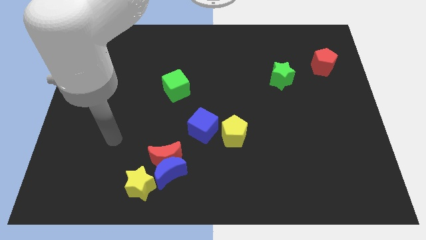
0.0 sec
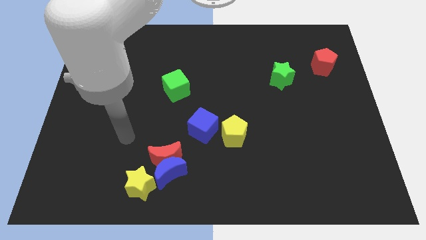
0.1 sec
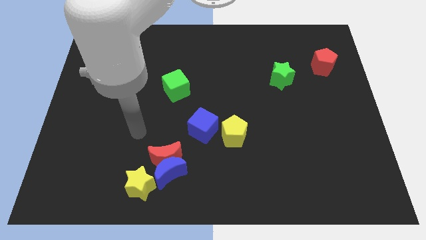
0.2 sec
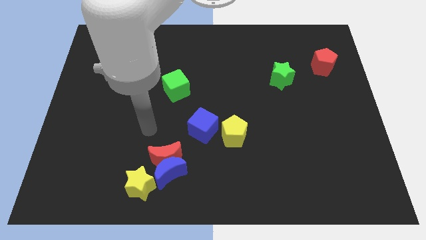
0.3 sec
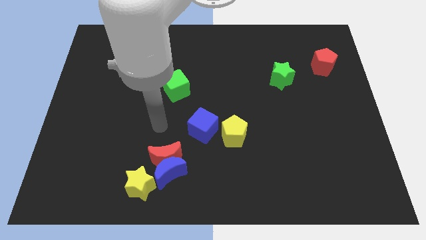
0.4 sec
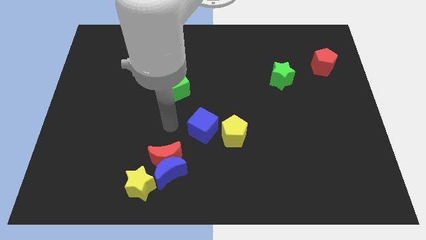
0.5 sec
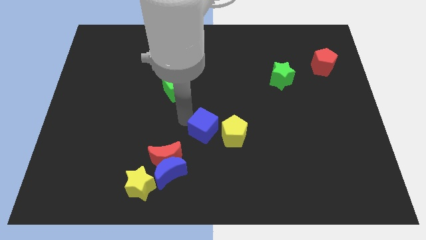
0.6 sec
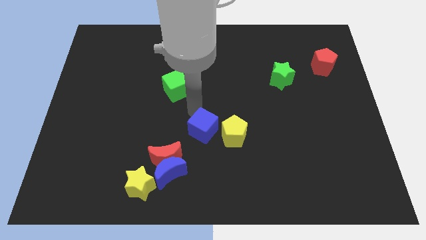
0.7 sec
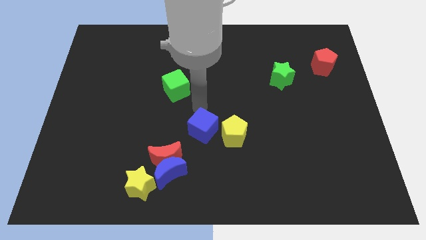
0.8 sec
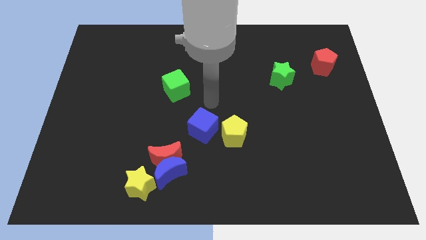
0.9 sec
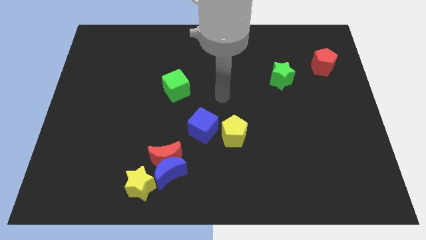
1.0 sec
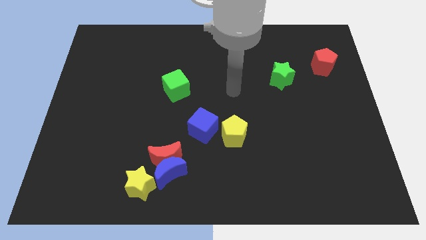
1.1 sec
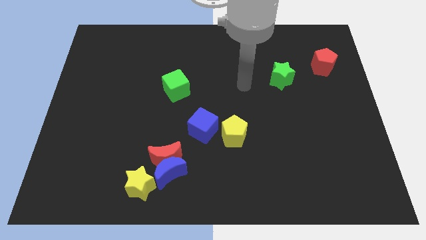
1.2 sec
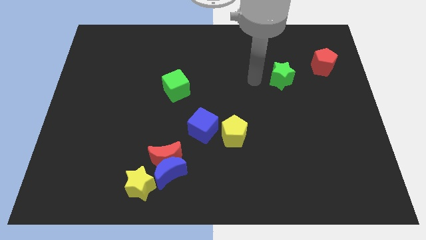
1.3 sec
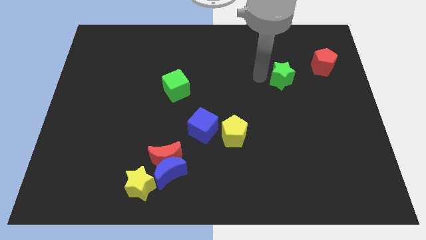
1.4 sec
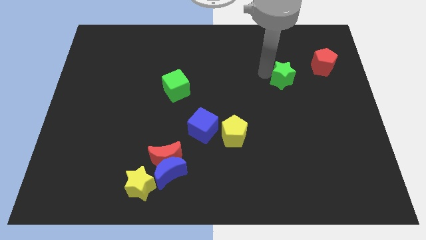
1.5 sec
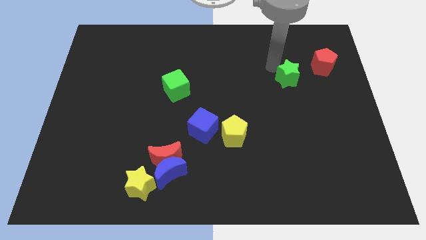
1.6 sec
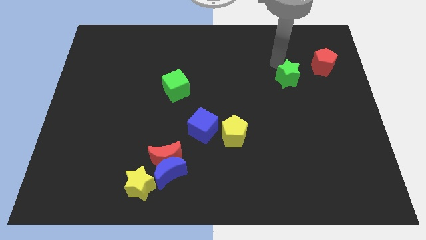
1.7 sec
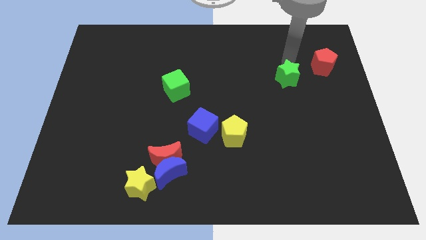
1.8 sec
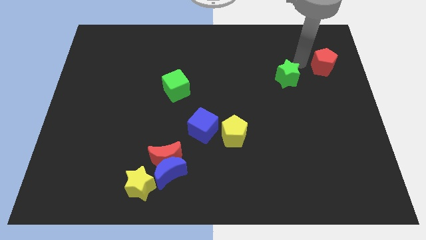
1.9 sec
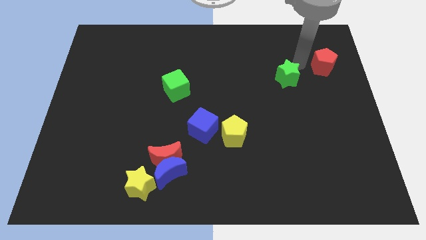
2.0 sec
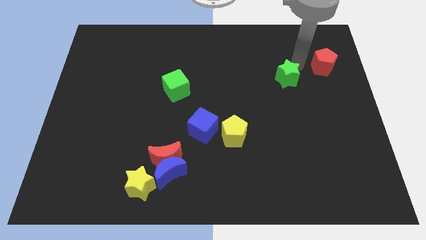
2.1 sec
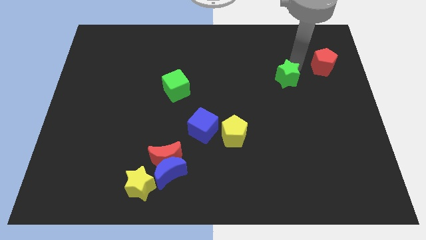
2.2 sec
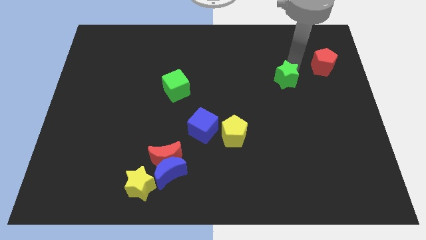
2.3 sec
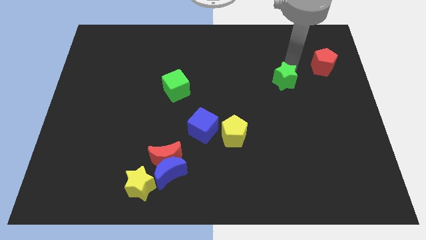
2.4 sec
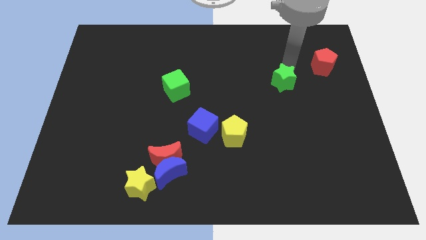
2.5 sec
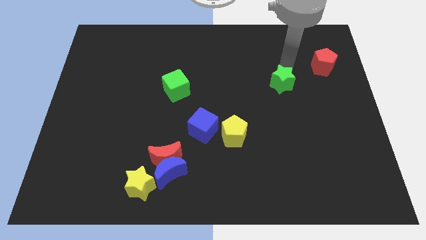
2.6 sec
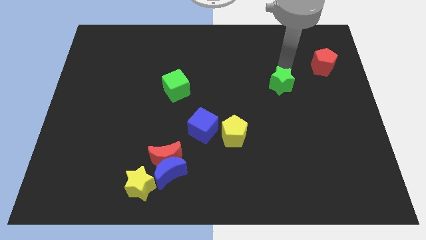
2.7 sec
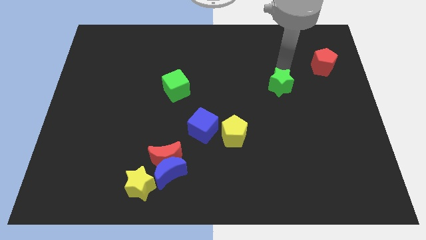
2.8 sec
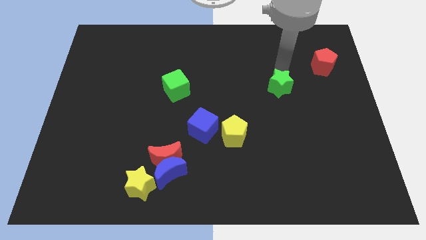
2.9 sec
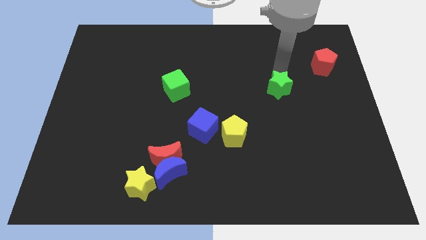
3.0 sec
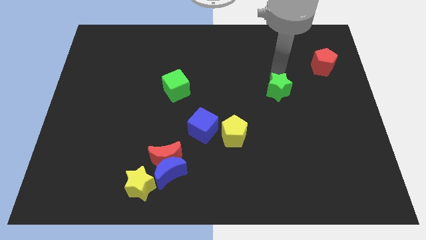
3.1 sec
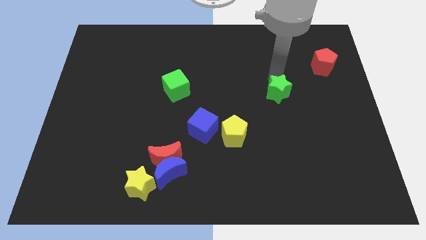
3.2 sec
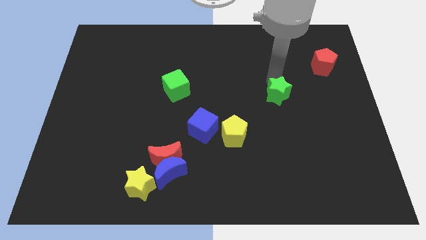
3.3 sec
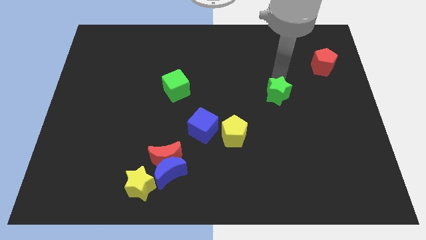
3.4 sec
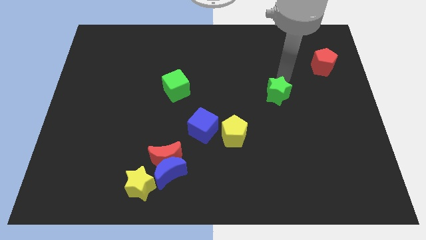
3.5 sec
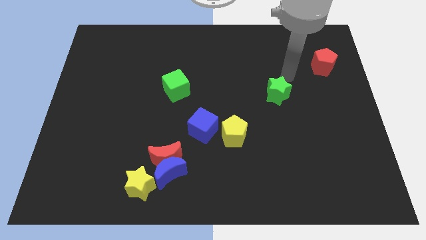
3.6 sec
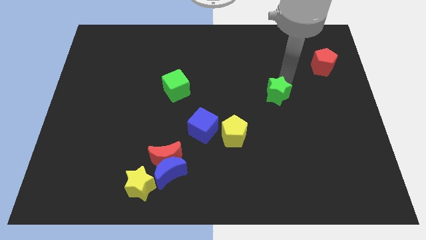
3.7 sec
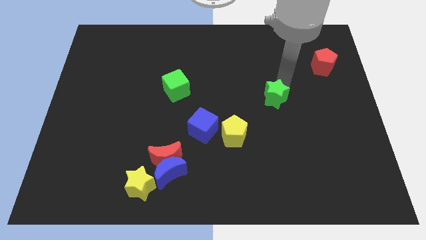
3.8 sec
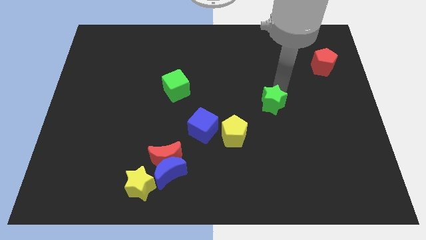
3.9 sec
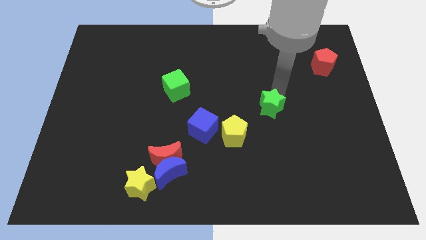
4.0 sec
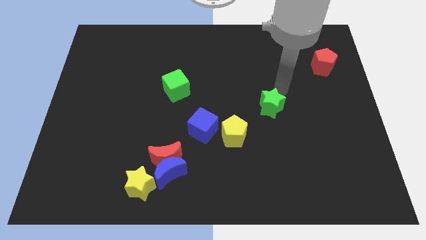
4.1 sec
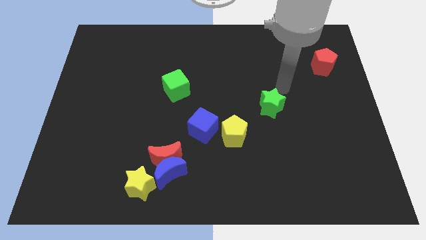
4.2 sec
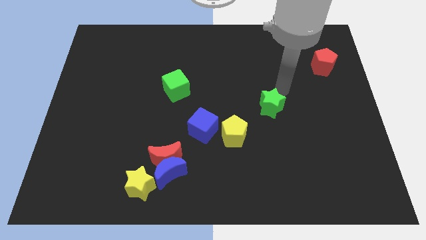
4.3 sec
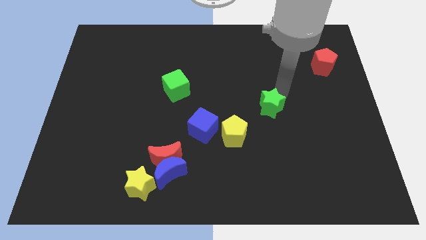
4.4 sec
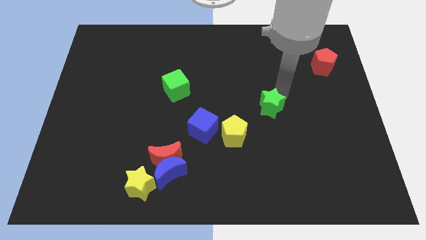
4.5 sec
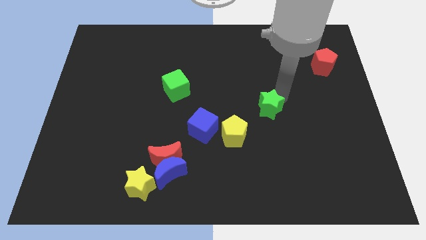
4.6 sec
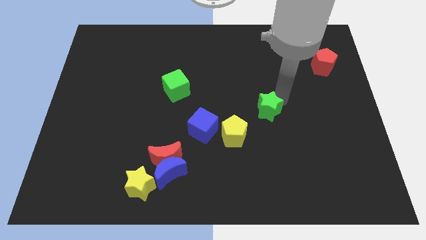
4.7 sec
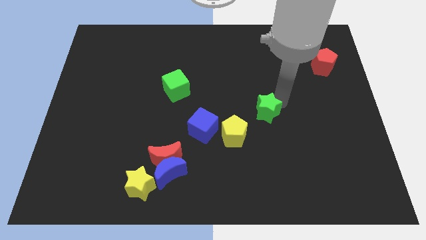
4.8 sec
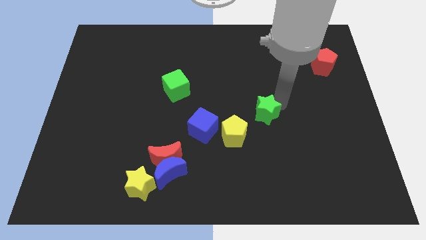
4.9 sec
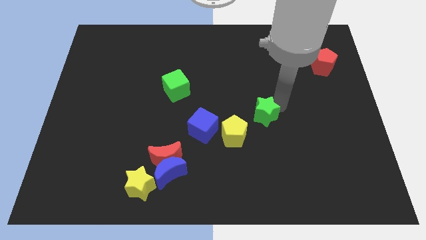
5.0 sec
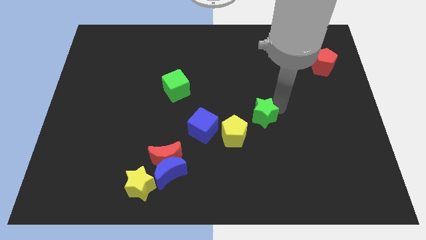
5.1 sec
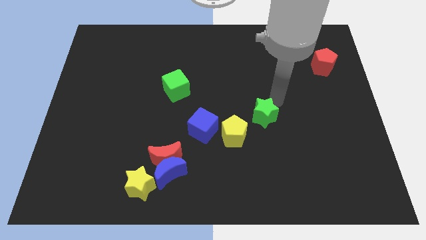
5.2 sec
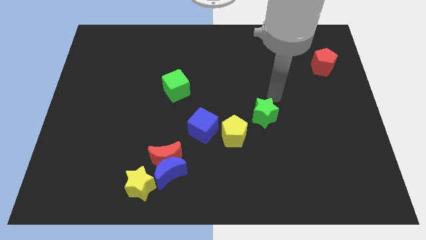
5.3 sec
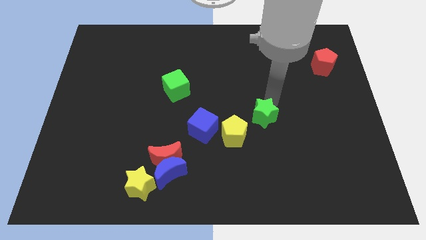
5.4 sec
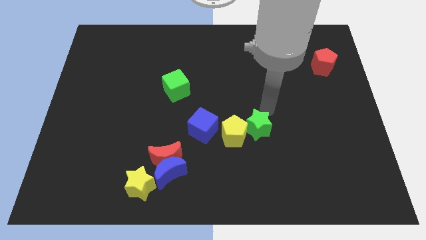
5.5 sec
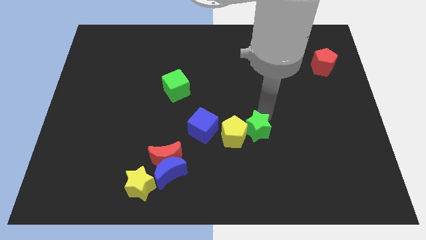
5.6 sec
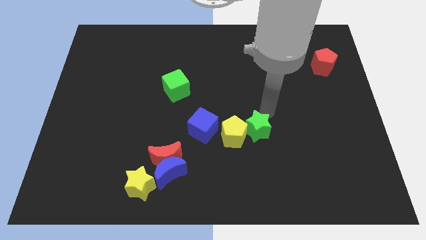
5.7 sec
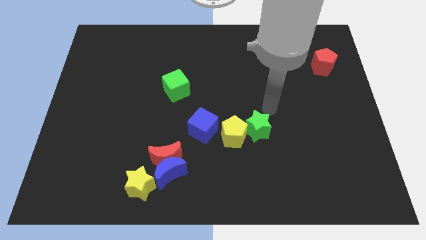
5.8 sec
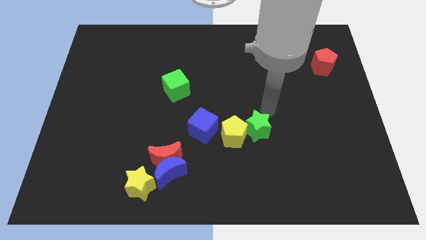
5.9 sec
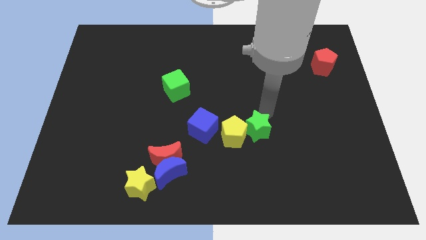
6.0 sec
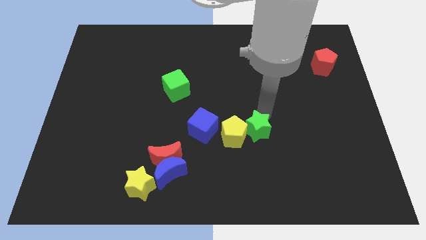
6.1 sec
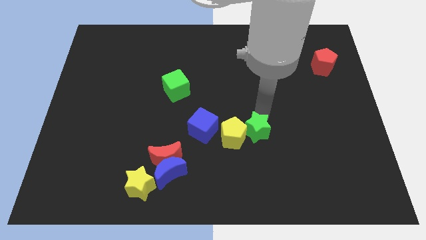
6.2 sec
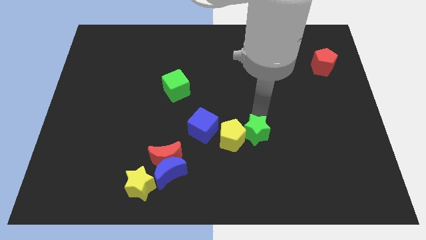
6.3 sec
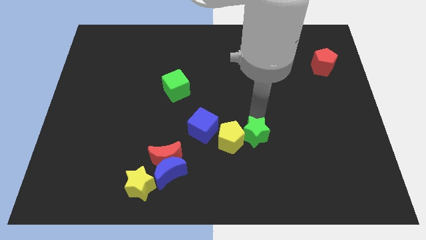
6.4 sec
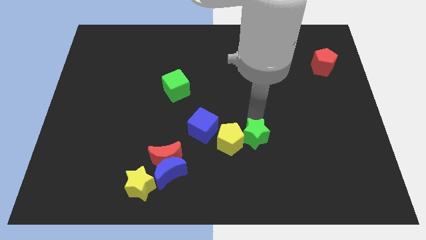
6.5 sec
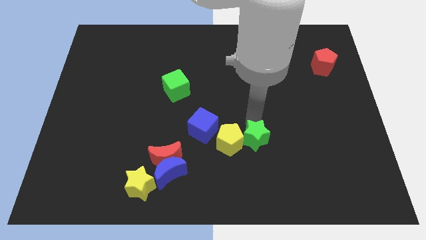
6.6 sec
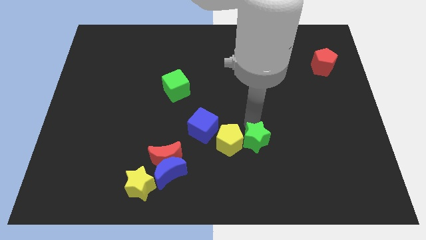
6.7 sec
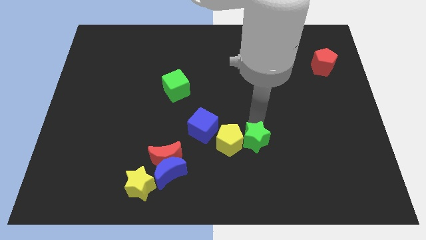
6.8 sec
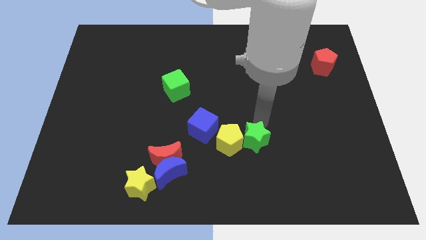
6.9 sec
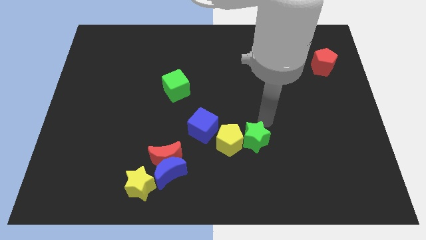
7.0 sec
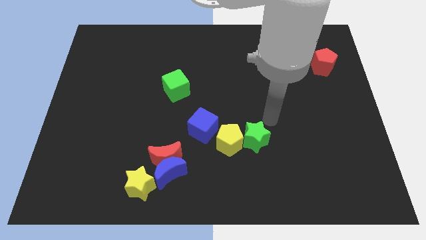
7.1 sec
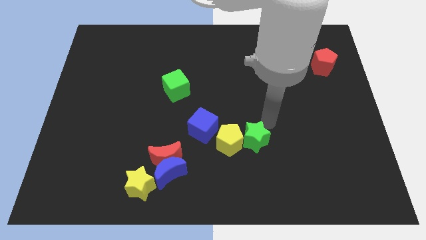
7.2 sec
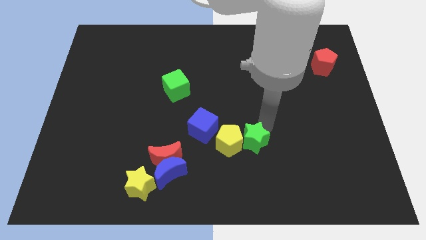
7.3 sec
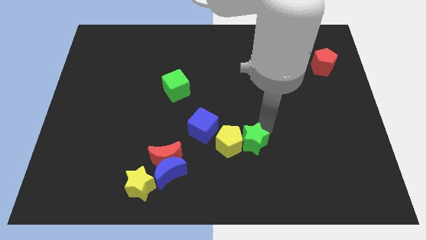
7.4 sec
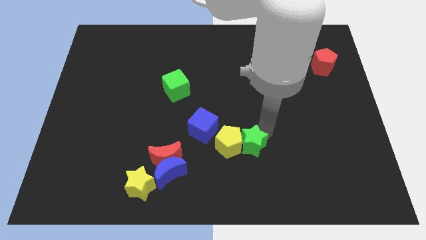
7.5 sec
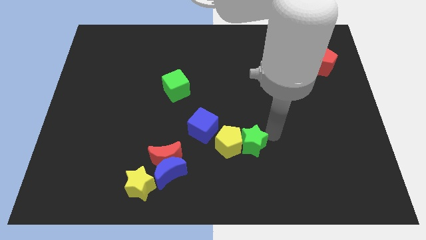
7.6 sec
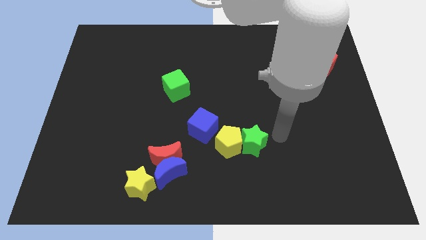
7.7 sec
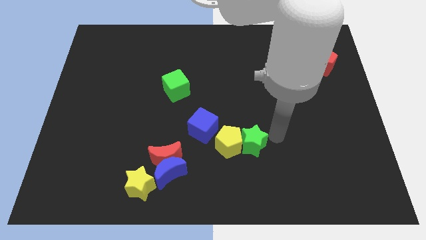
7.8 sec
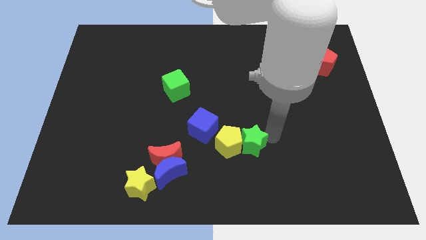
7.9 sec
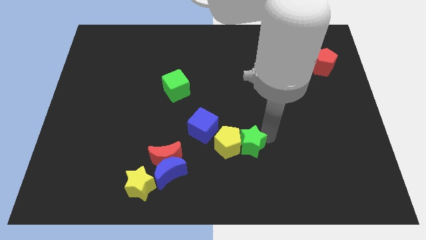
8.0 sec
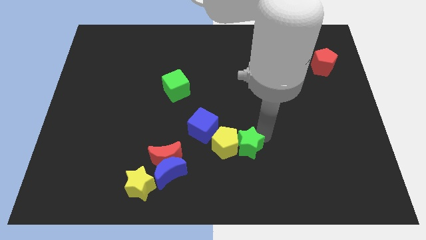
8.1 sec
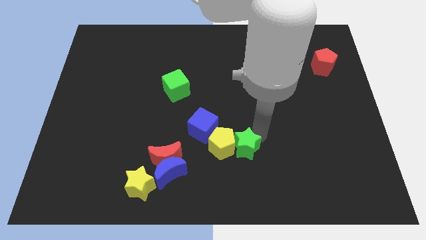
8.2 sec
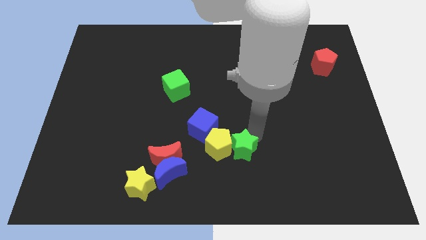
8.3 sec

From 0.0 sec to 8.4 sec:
push the green star down and then to the left

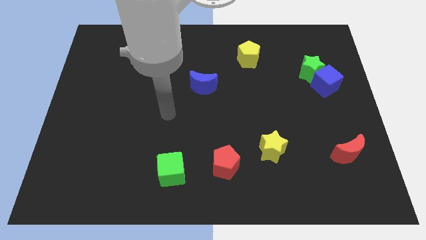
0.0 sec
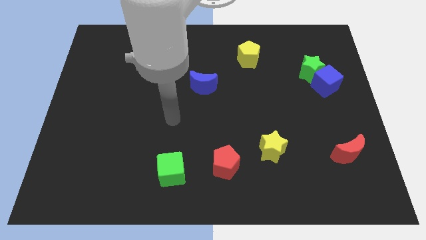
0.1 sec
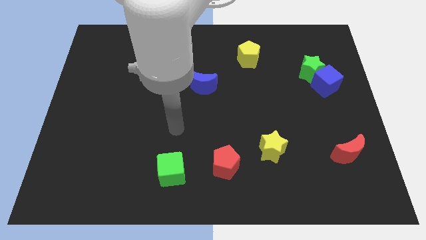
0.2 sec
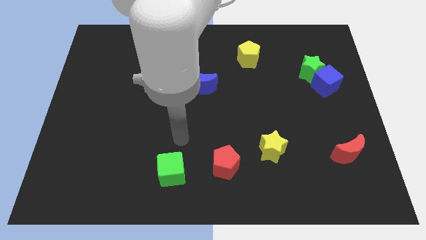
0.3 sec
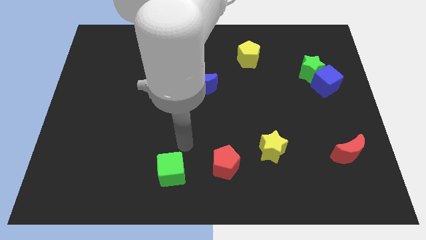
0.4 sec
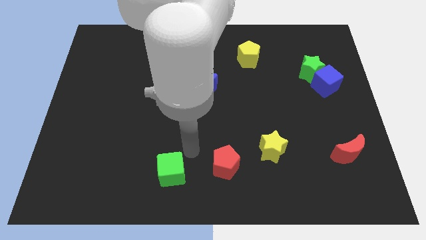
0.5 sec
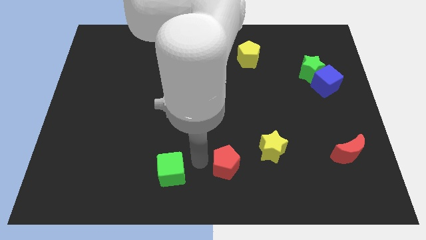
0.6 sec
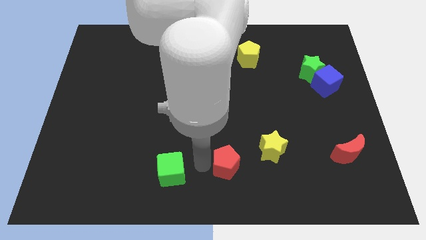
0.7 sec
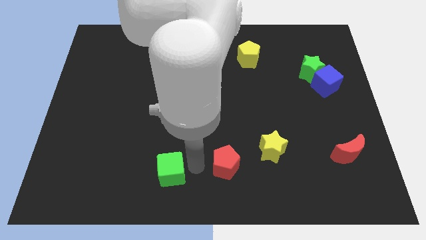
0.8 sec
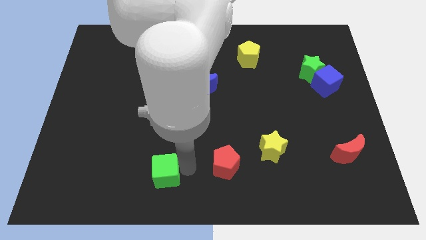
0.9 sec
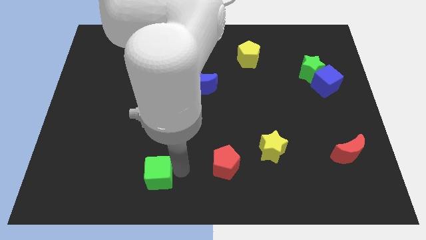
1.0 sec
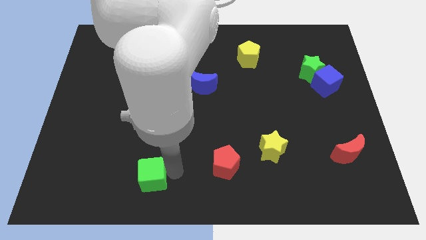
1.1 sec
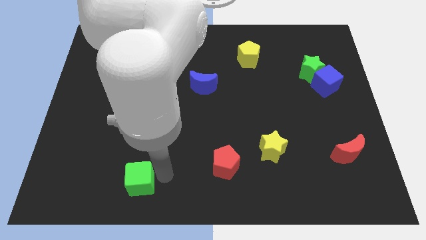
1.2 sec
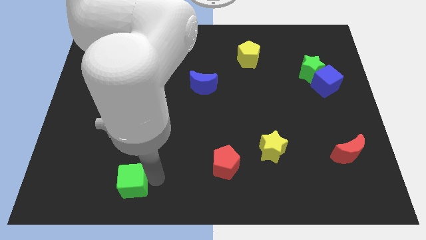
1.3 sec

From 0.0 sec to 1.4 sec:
slide the green cube a little to the left
